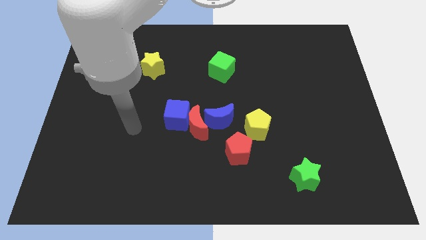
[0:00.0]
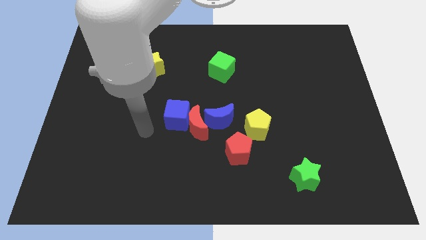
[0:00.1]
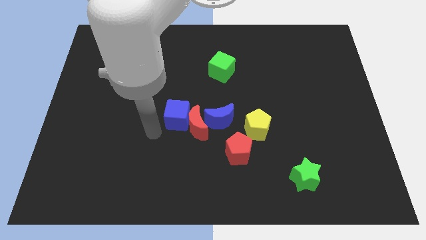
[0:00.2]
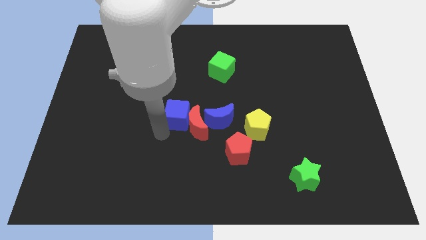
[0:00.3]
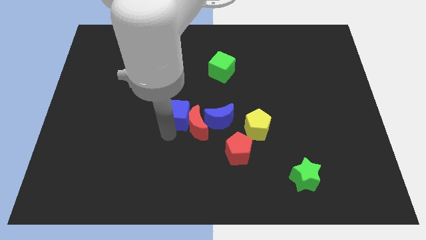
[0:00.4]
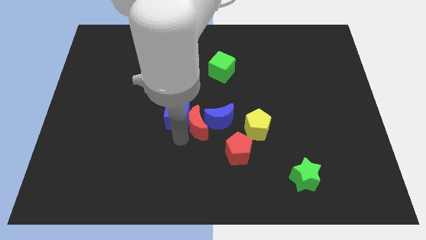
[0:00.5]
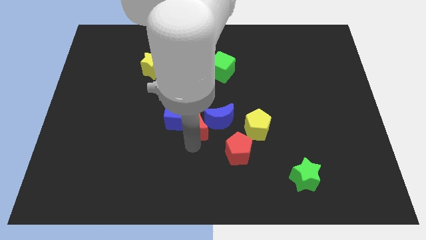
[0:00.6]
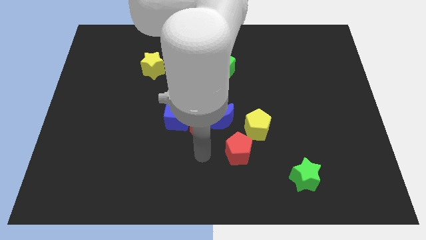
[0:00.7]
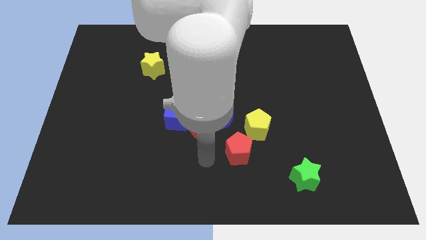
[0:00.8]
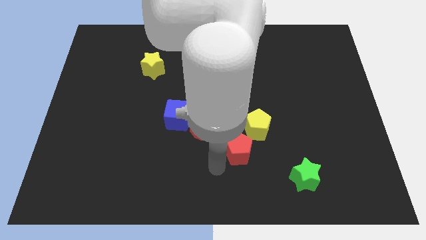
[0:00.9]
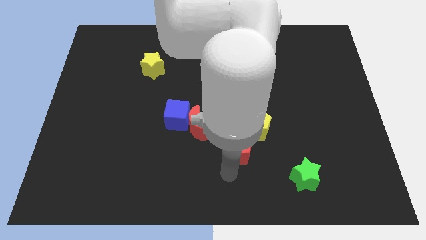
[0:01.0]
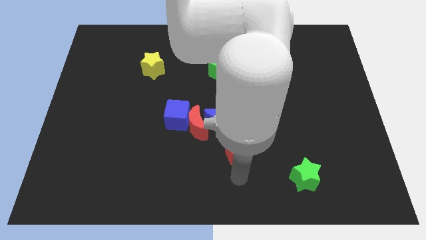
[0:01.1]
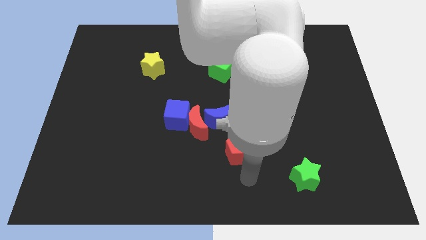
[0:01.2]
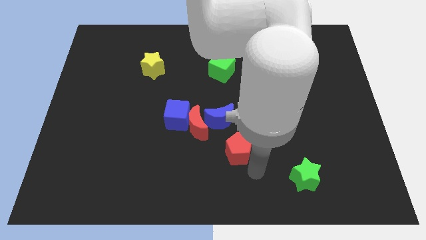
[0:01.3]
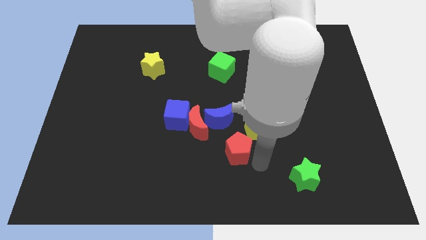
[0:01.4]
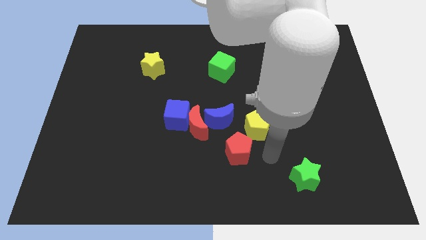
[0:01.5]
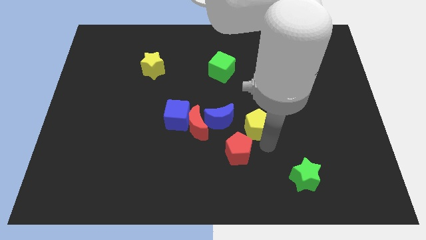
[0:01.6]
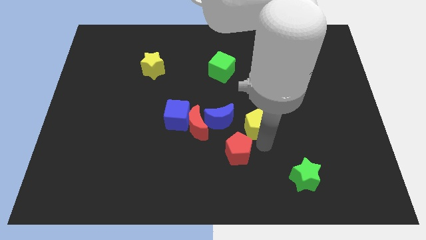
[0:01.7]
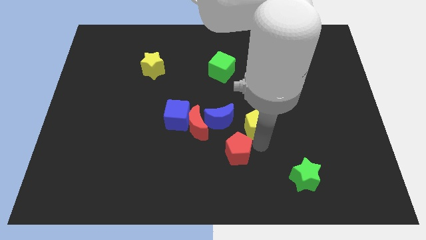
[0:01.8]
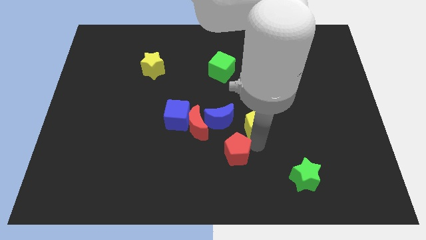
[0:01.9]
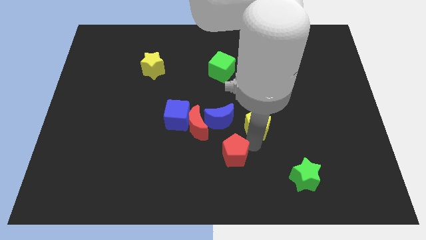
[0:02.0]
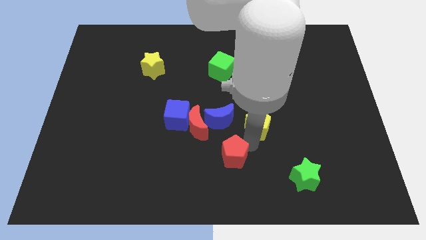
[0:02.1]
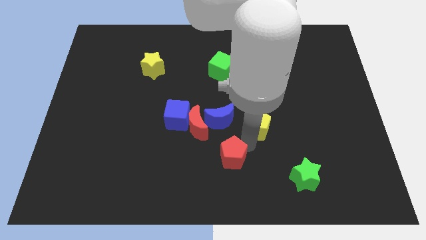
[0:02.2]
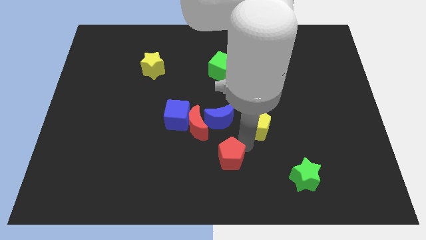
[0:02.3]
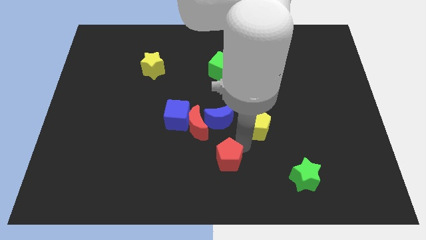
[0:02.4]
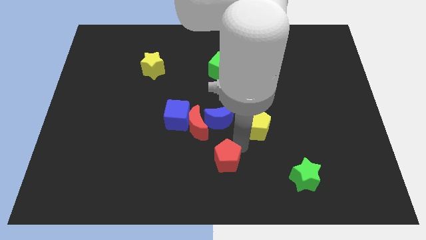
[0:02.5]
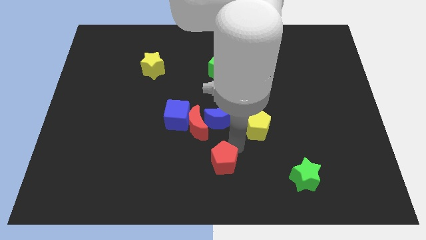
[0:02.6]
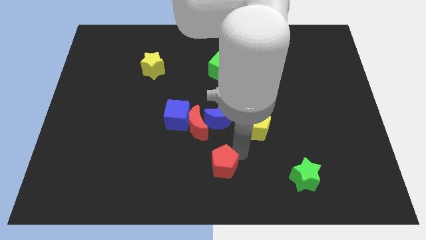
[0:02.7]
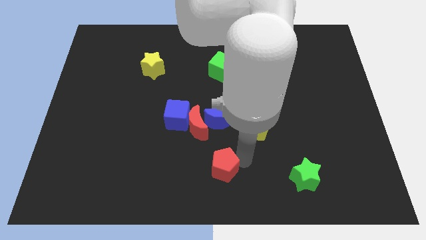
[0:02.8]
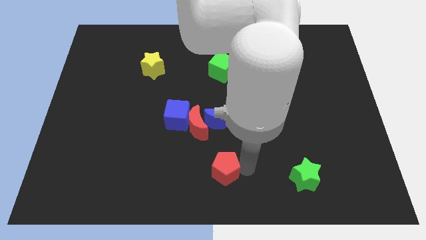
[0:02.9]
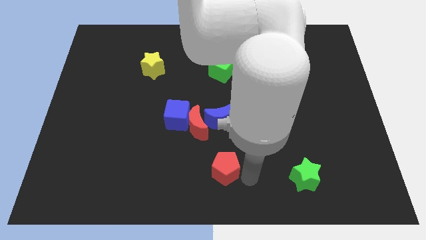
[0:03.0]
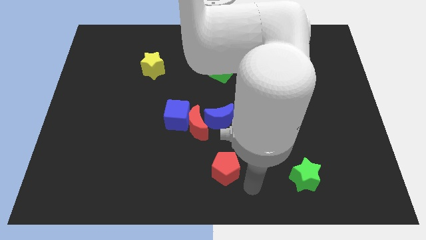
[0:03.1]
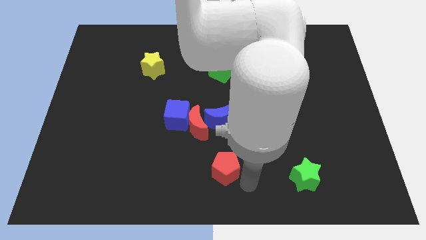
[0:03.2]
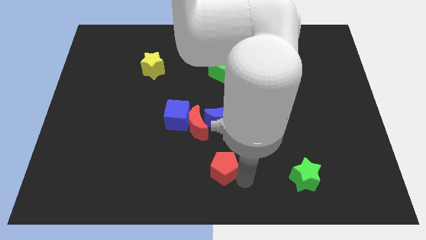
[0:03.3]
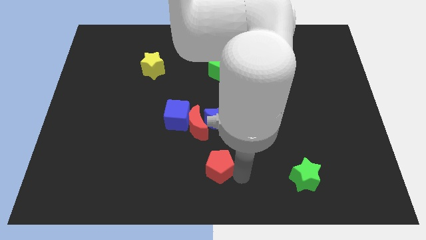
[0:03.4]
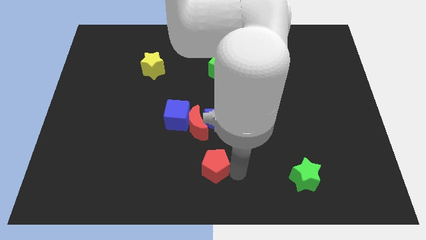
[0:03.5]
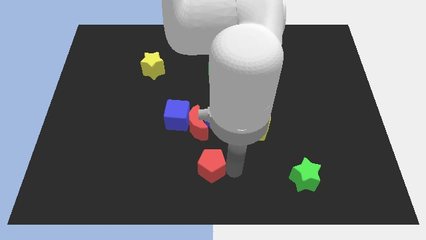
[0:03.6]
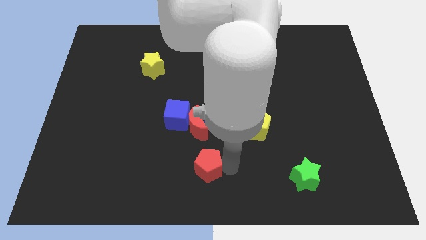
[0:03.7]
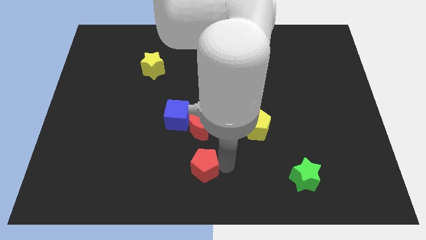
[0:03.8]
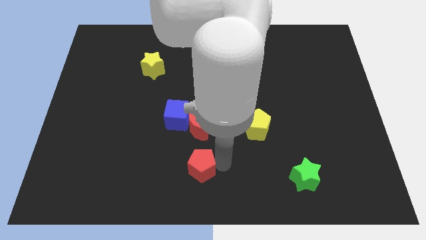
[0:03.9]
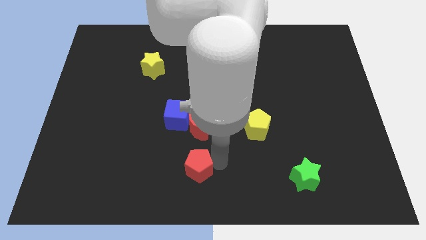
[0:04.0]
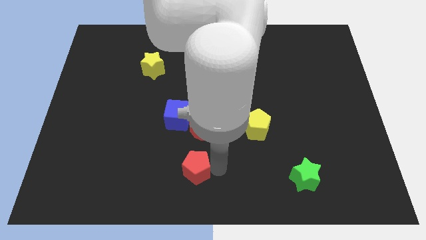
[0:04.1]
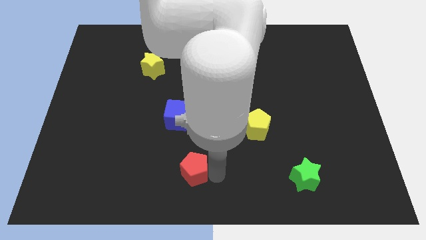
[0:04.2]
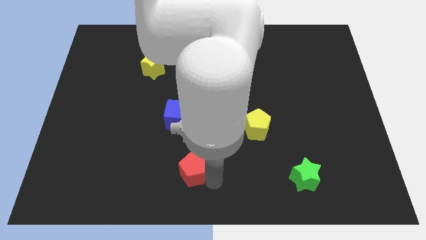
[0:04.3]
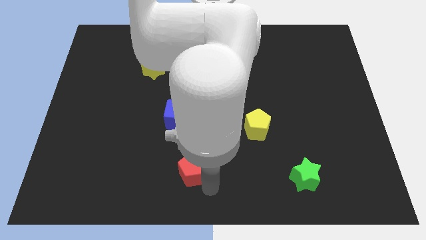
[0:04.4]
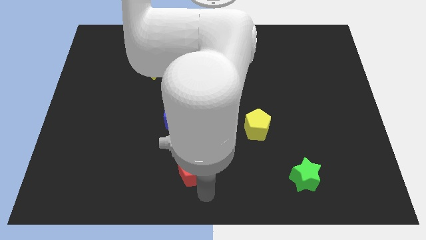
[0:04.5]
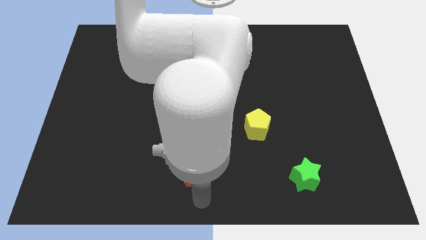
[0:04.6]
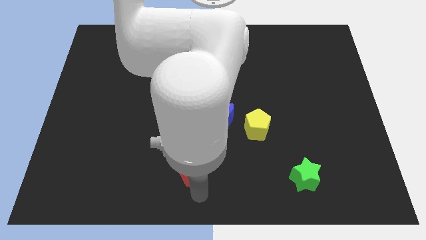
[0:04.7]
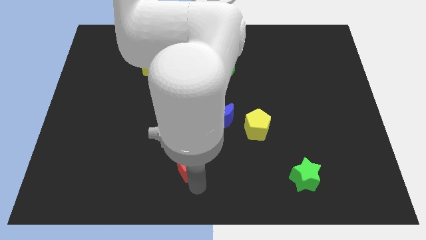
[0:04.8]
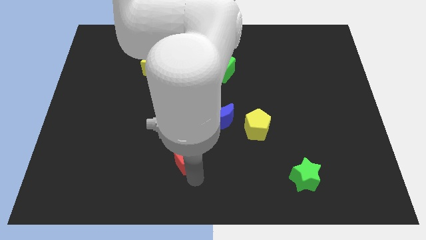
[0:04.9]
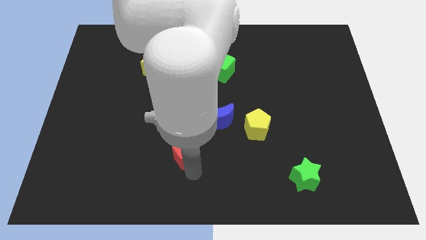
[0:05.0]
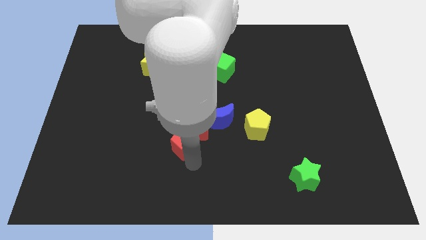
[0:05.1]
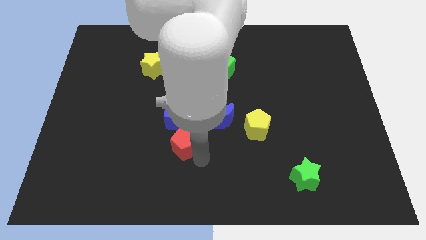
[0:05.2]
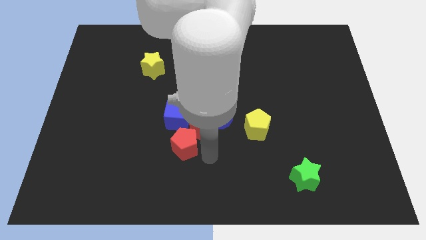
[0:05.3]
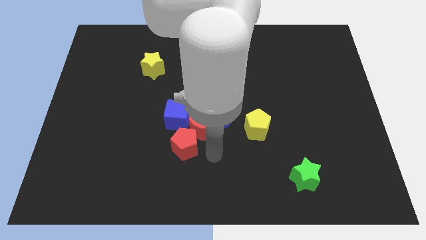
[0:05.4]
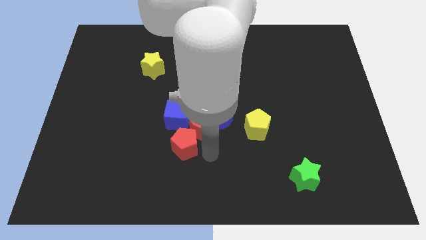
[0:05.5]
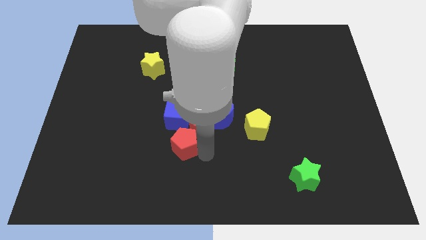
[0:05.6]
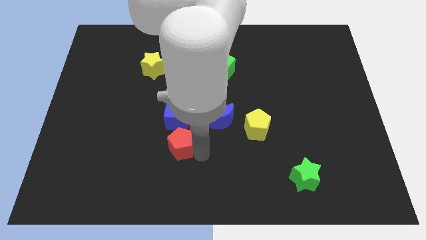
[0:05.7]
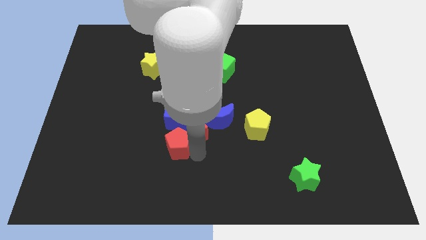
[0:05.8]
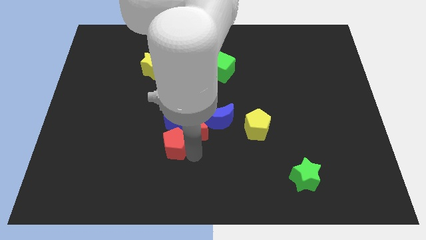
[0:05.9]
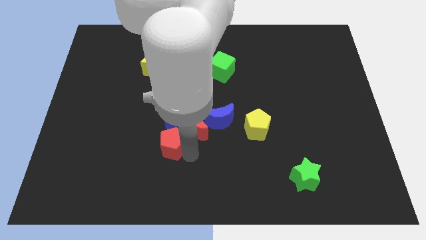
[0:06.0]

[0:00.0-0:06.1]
put the red pentagon diagonally down and to the left of the blue cube

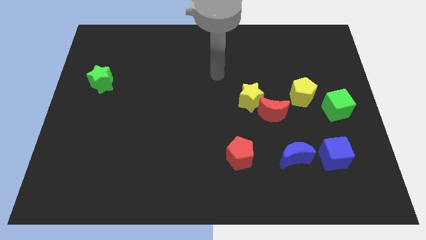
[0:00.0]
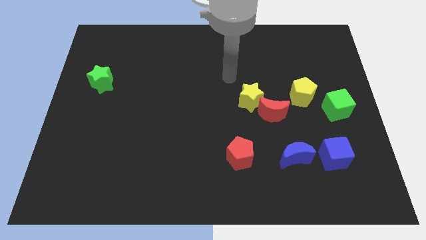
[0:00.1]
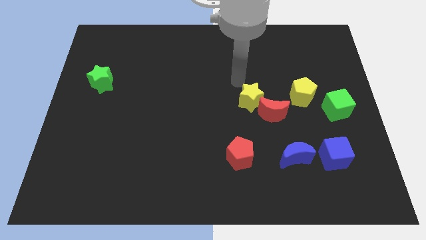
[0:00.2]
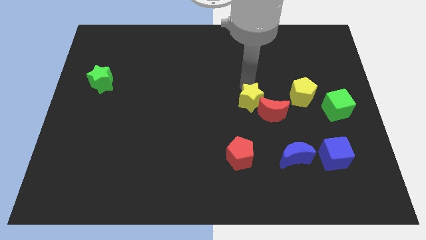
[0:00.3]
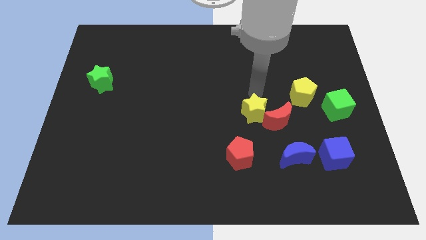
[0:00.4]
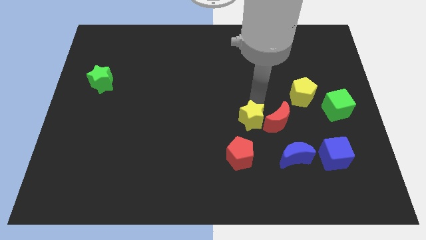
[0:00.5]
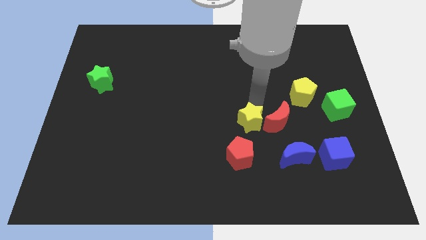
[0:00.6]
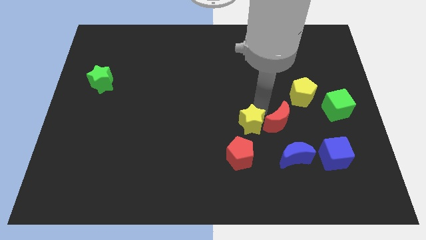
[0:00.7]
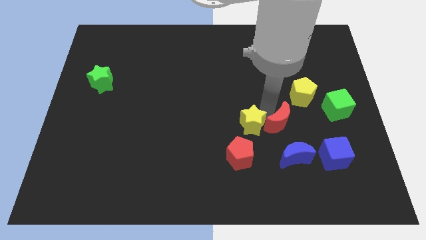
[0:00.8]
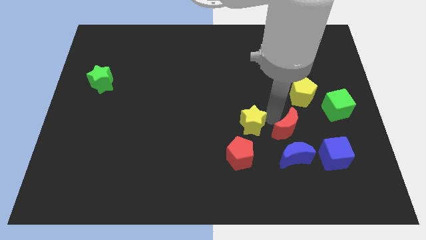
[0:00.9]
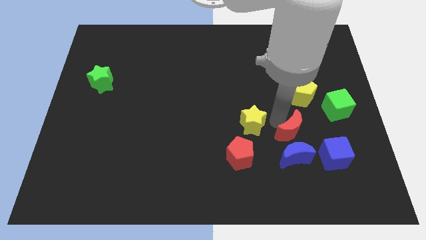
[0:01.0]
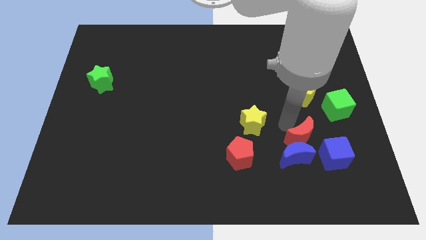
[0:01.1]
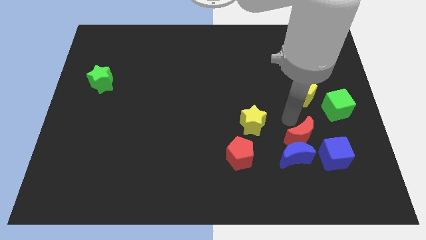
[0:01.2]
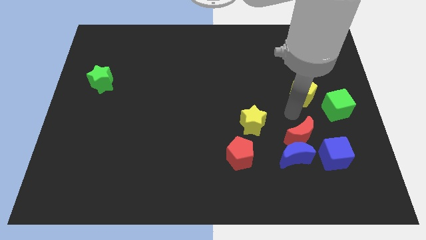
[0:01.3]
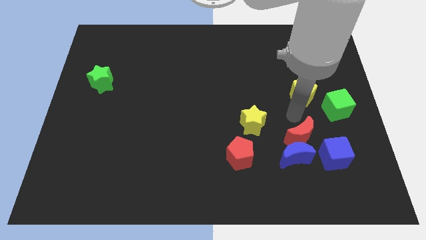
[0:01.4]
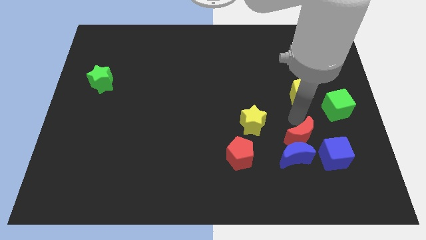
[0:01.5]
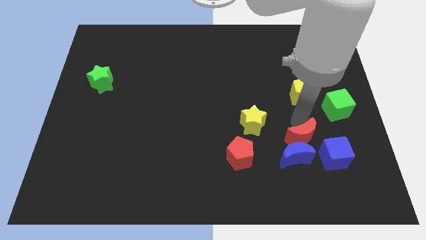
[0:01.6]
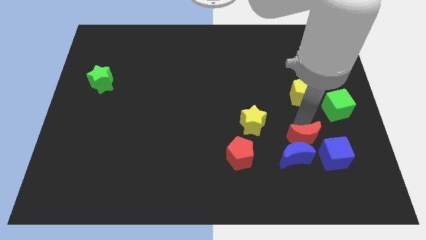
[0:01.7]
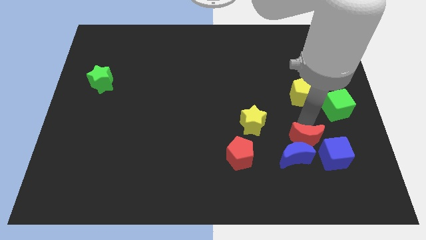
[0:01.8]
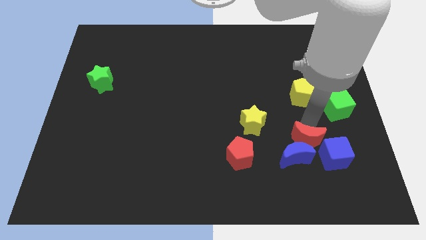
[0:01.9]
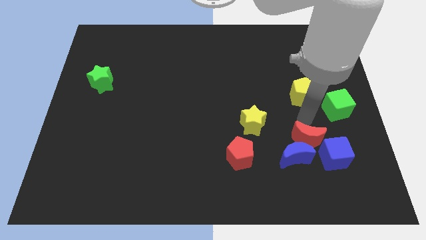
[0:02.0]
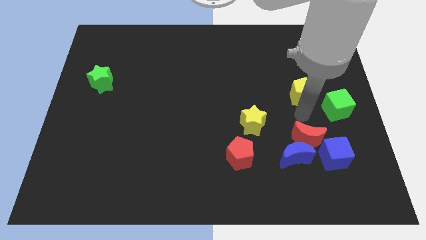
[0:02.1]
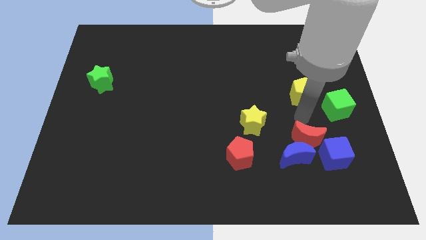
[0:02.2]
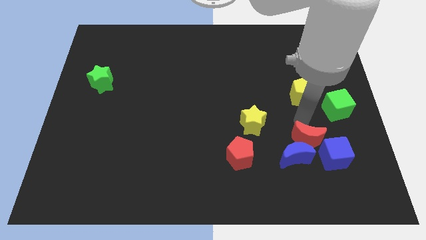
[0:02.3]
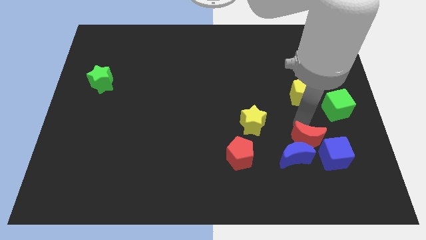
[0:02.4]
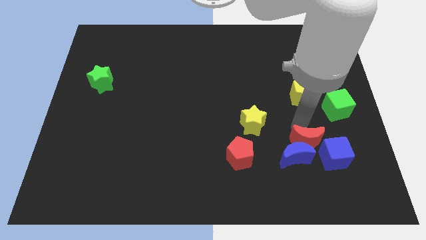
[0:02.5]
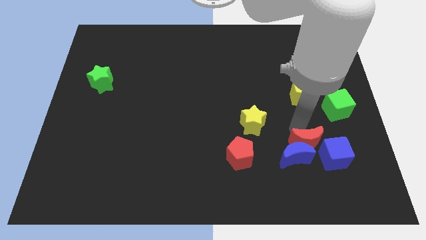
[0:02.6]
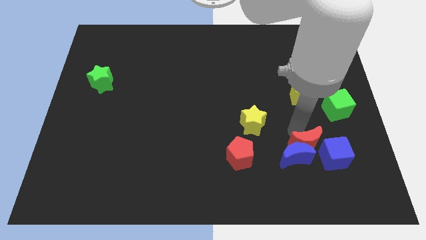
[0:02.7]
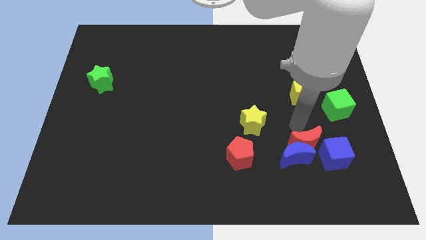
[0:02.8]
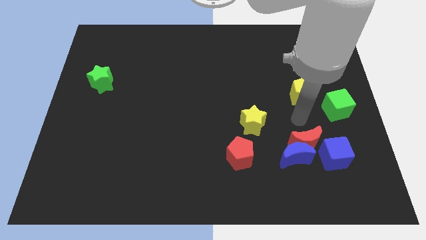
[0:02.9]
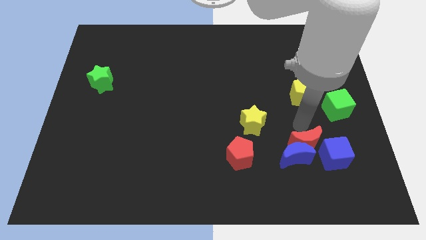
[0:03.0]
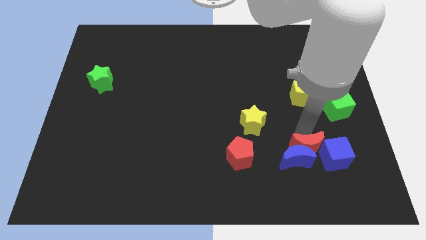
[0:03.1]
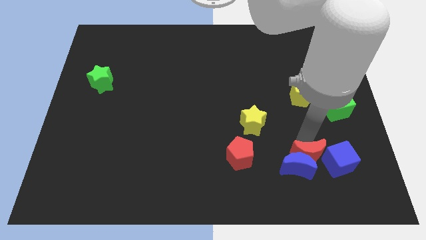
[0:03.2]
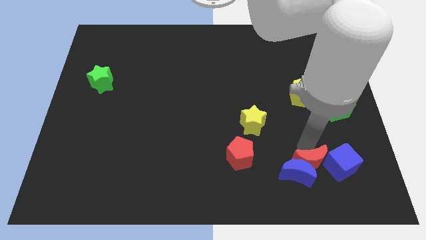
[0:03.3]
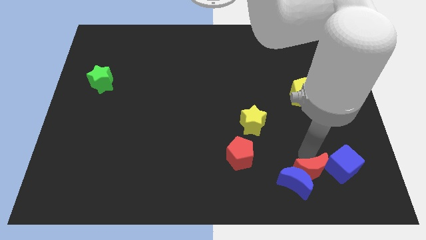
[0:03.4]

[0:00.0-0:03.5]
put the red moon to the bottom left of the blue cube
